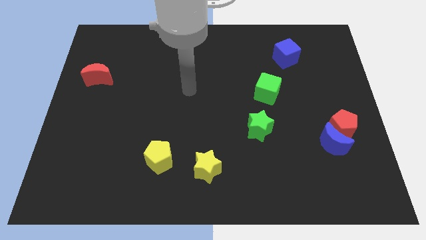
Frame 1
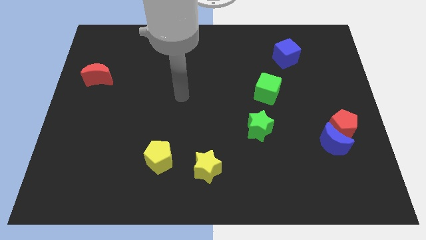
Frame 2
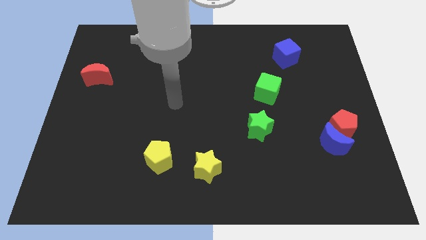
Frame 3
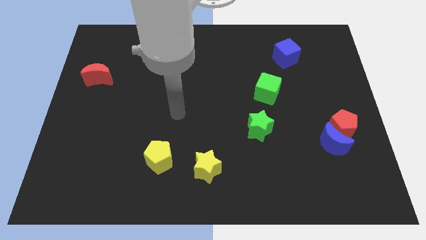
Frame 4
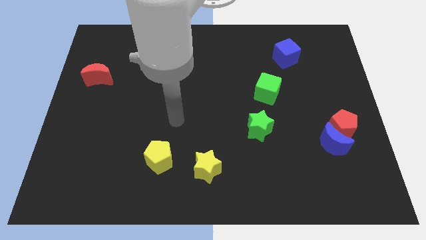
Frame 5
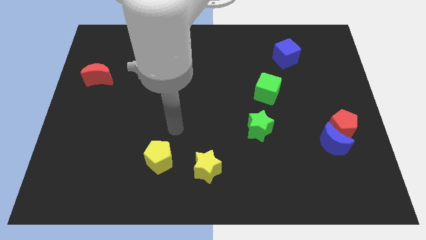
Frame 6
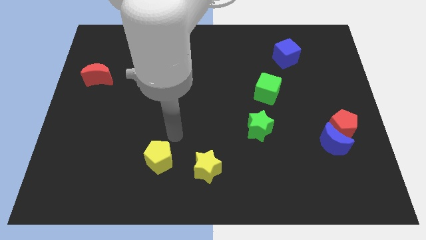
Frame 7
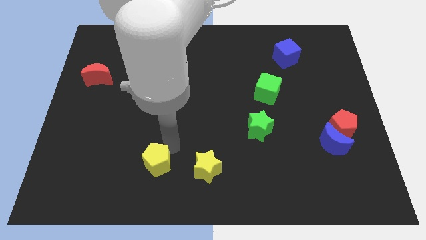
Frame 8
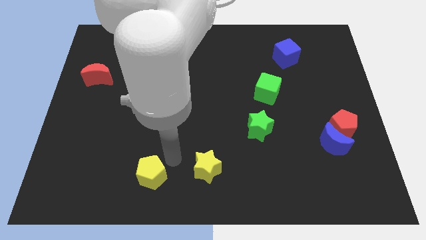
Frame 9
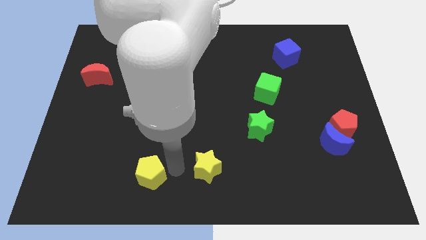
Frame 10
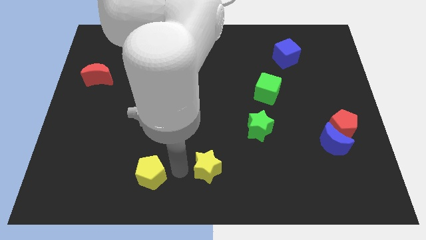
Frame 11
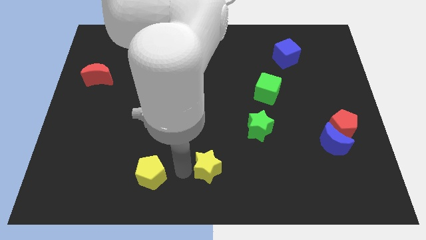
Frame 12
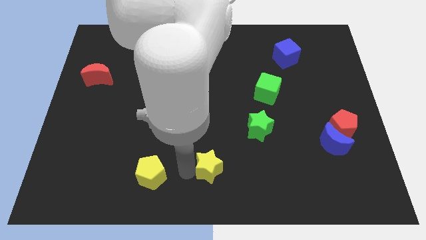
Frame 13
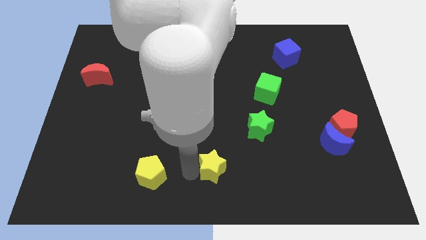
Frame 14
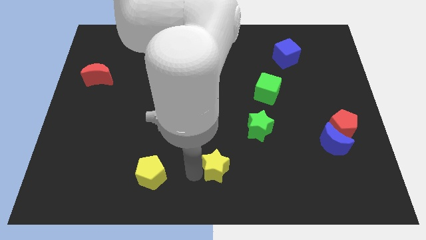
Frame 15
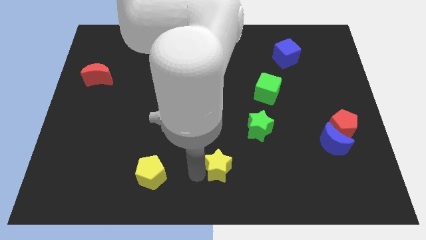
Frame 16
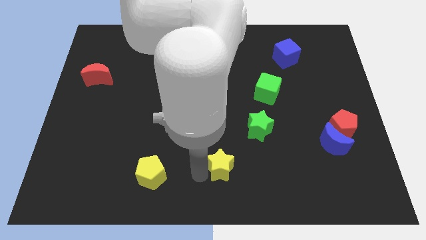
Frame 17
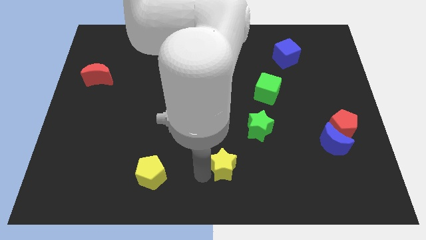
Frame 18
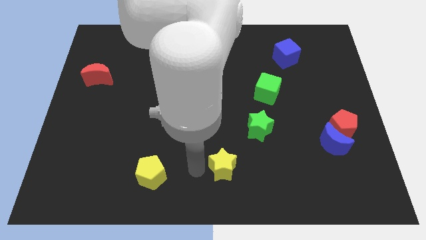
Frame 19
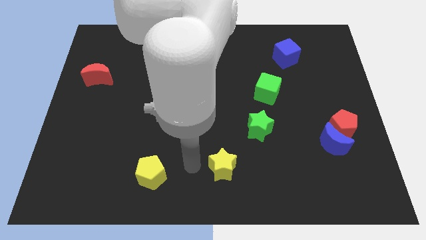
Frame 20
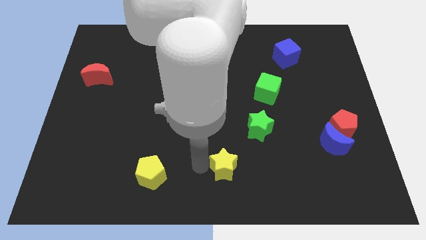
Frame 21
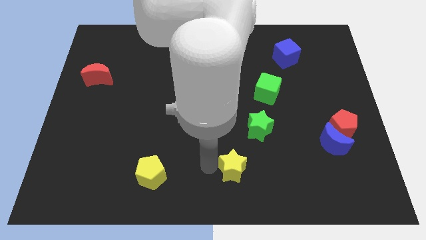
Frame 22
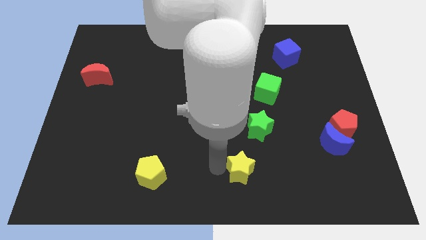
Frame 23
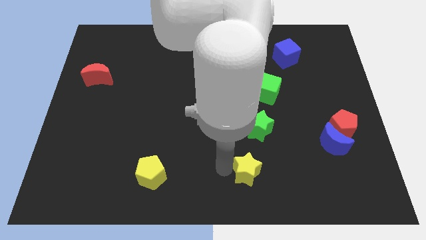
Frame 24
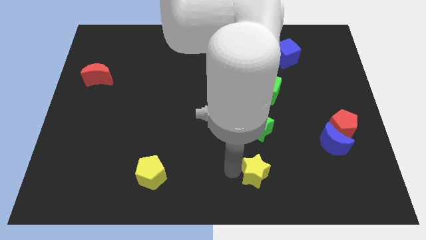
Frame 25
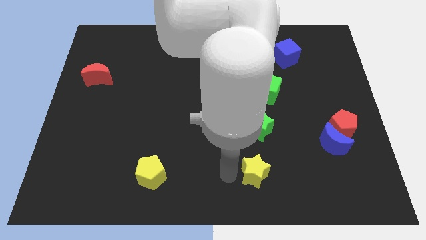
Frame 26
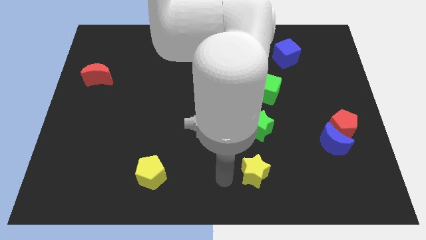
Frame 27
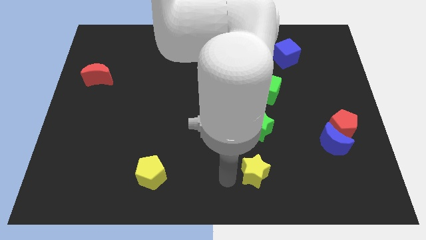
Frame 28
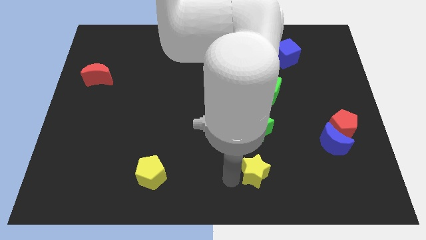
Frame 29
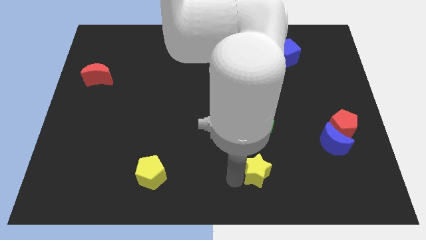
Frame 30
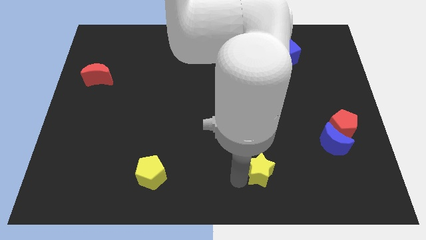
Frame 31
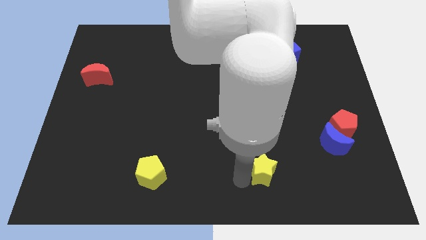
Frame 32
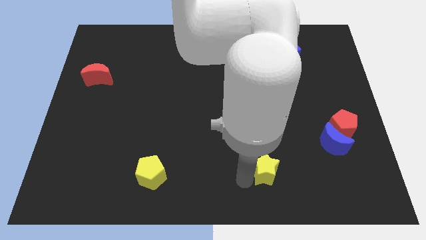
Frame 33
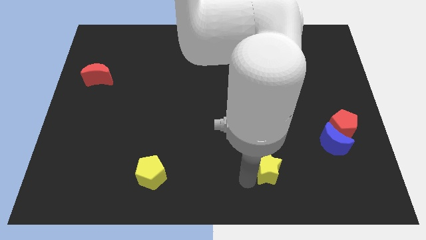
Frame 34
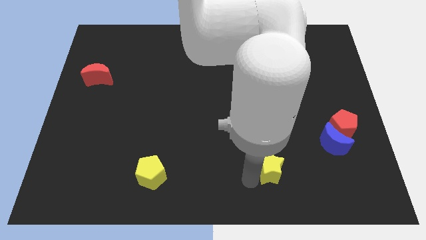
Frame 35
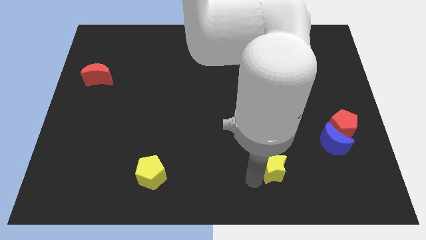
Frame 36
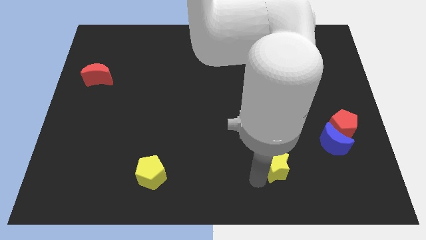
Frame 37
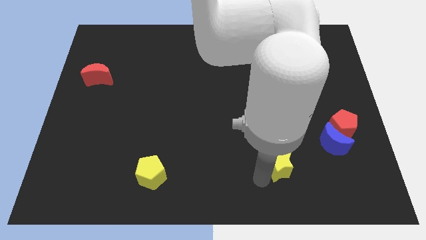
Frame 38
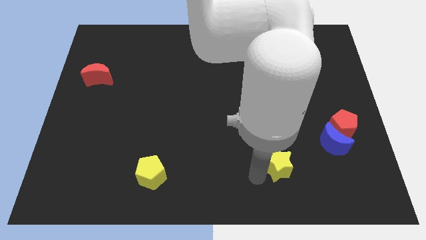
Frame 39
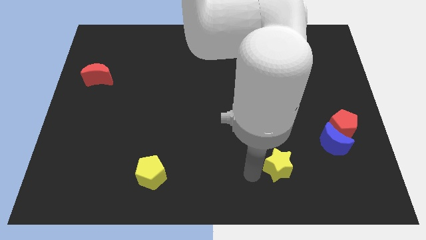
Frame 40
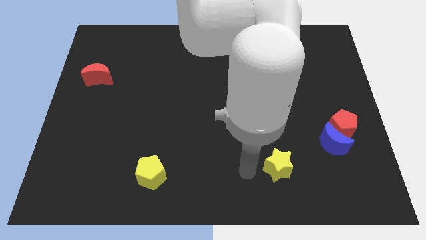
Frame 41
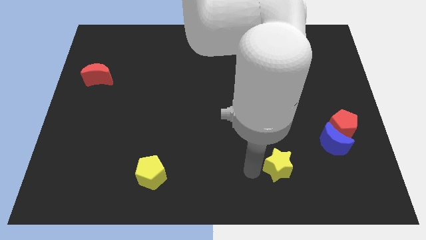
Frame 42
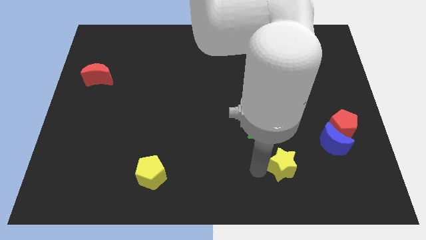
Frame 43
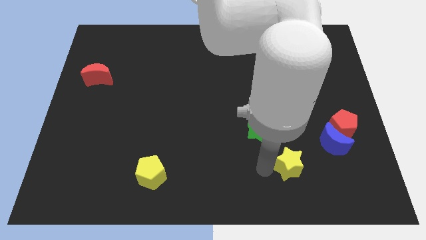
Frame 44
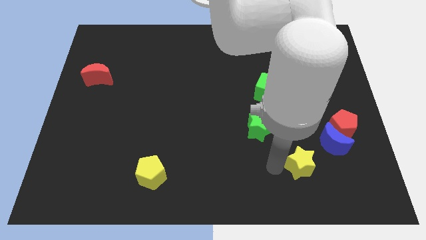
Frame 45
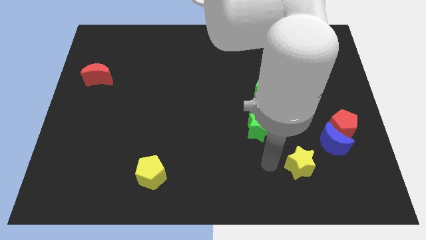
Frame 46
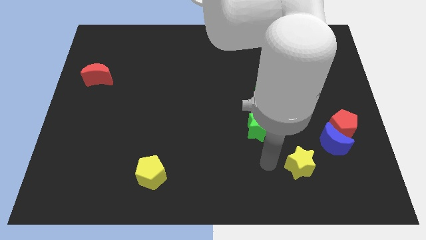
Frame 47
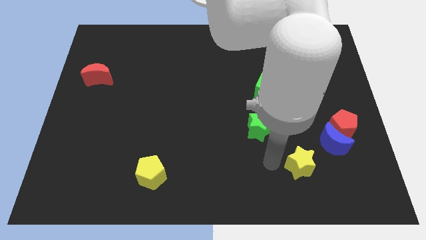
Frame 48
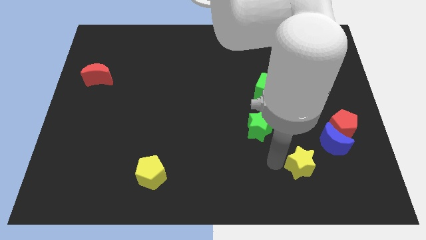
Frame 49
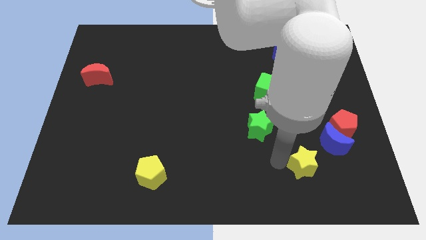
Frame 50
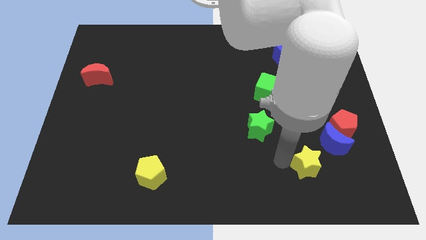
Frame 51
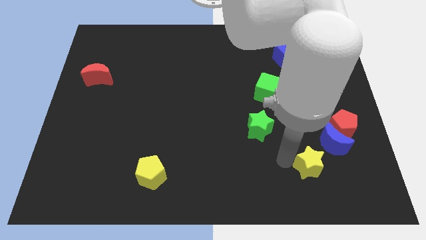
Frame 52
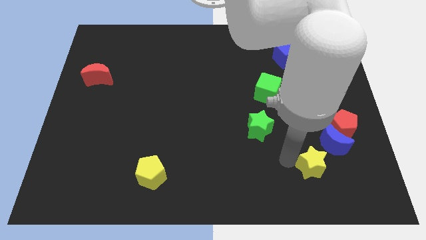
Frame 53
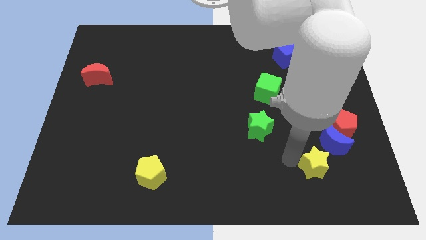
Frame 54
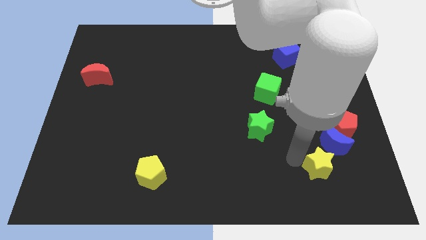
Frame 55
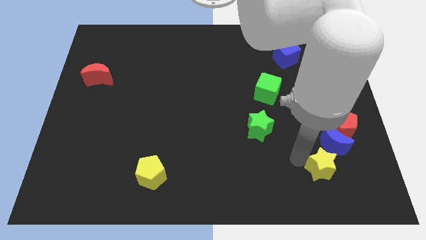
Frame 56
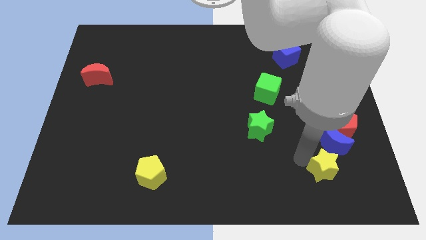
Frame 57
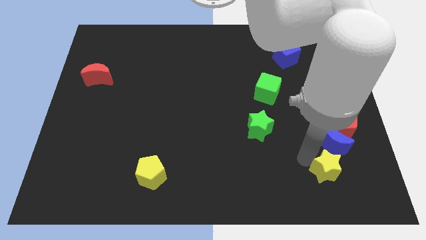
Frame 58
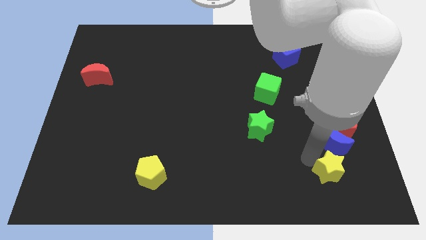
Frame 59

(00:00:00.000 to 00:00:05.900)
put the yellow star to the bottom of the red pentagon

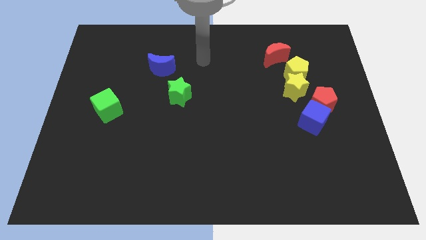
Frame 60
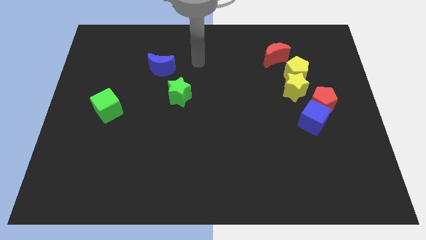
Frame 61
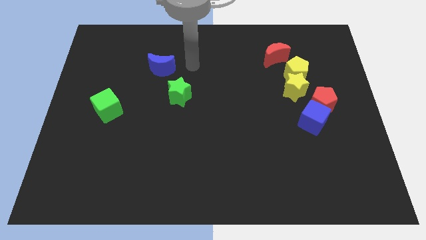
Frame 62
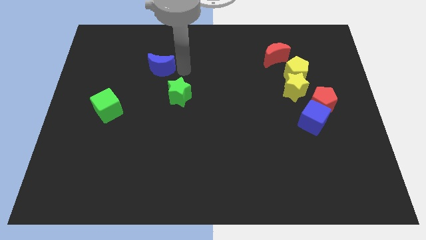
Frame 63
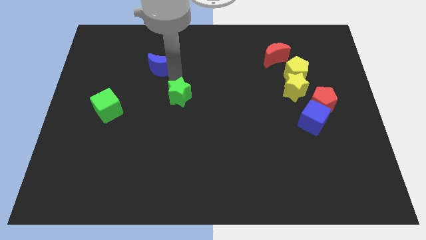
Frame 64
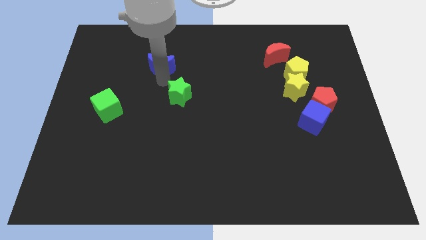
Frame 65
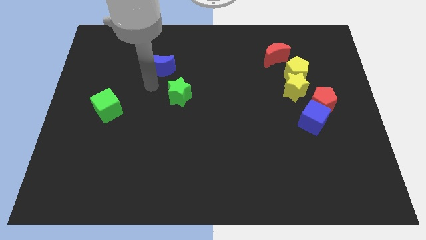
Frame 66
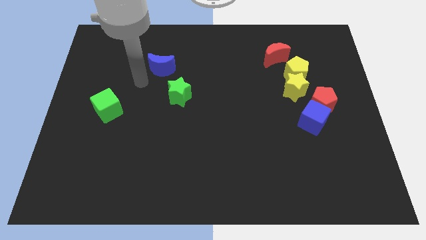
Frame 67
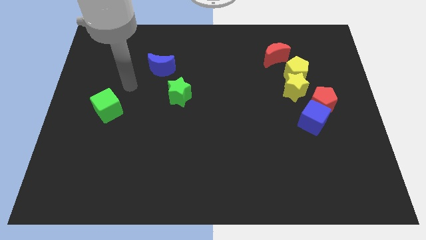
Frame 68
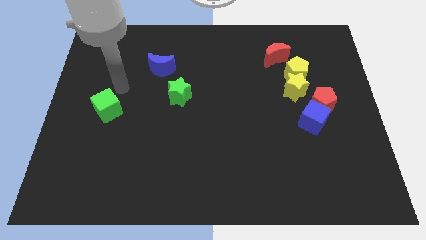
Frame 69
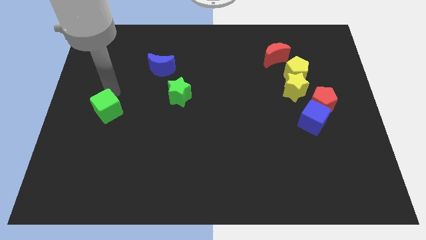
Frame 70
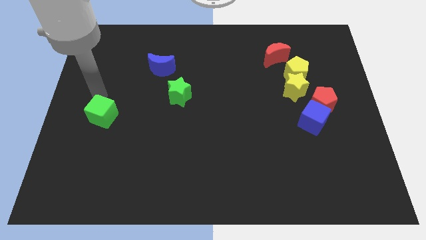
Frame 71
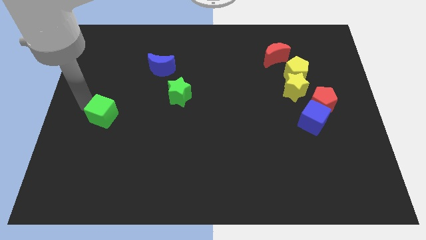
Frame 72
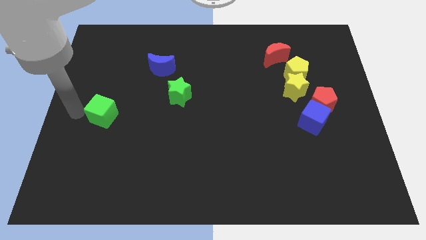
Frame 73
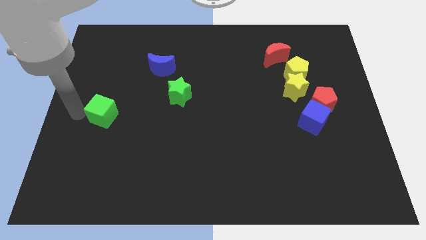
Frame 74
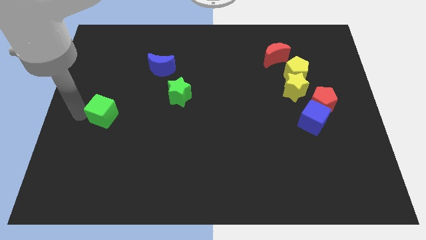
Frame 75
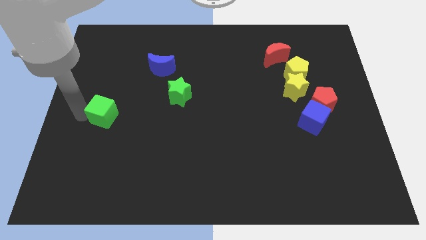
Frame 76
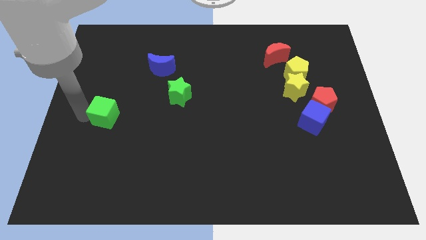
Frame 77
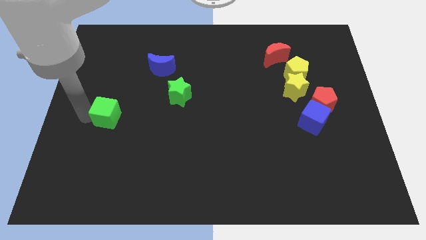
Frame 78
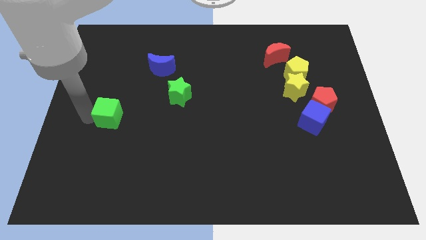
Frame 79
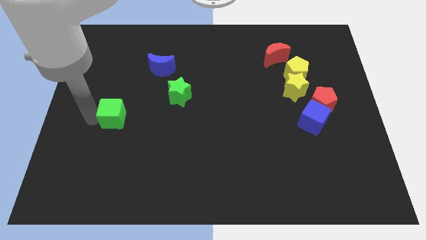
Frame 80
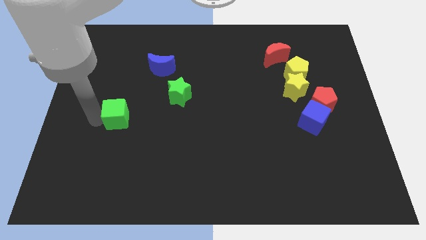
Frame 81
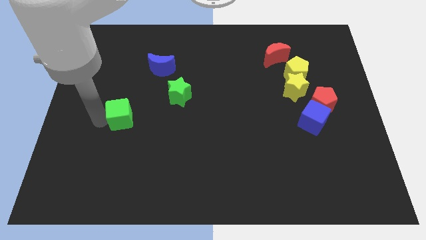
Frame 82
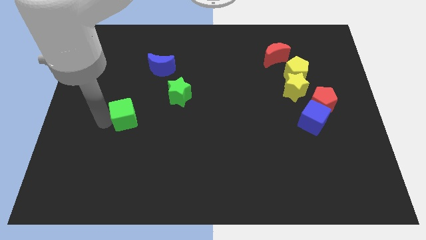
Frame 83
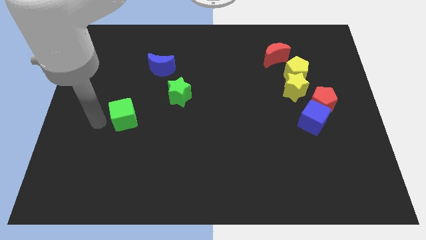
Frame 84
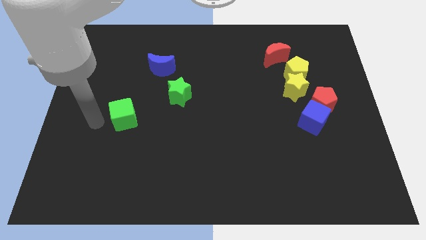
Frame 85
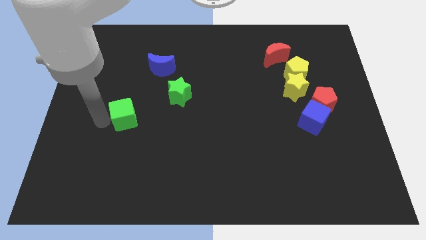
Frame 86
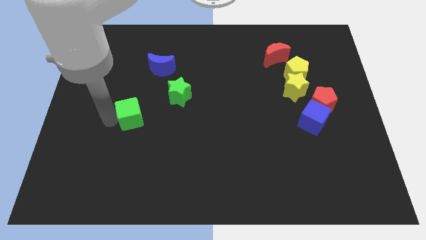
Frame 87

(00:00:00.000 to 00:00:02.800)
slide the green cube to the bottom left side of the green star
